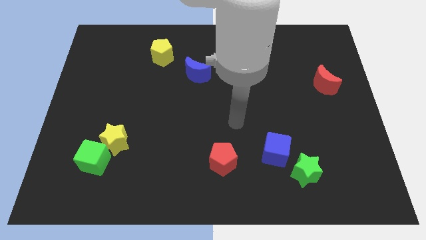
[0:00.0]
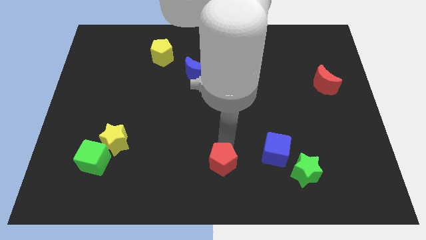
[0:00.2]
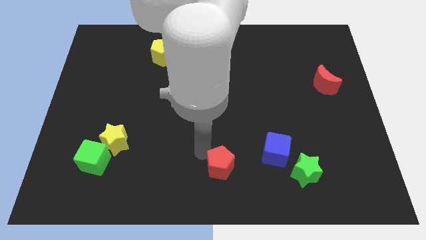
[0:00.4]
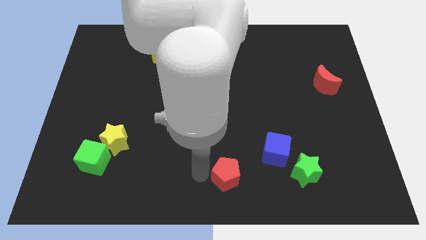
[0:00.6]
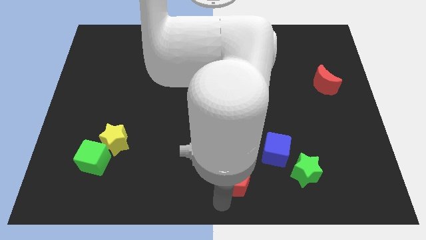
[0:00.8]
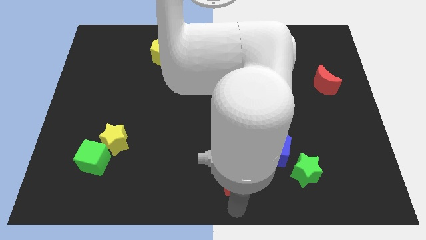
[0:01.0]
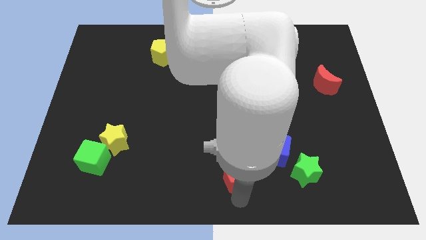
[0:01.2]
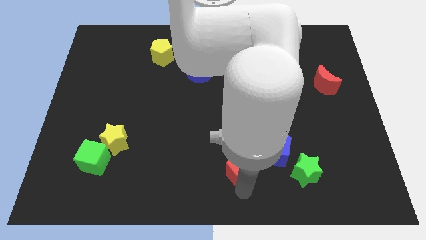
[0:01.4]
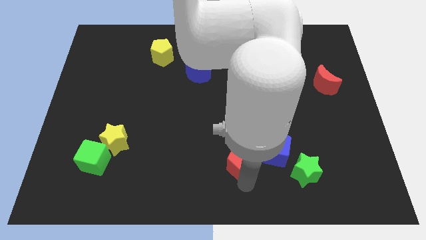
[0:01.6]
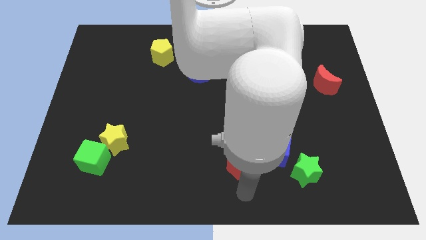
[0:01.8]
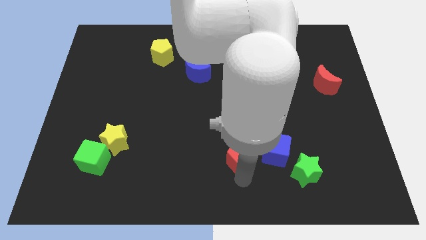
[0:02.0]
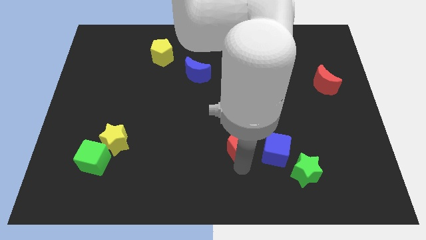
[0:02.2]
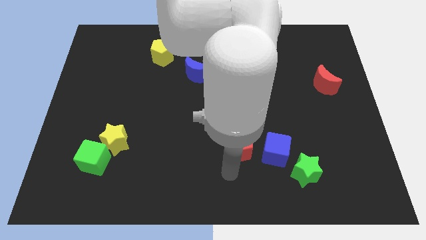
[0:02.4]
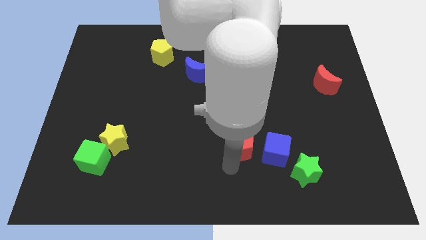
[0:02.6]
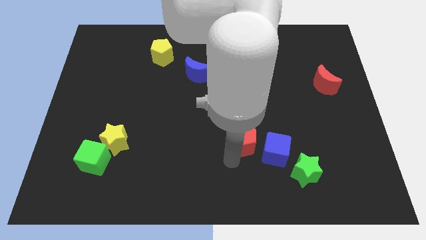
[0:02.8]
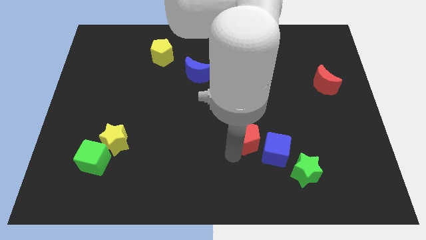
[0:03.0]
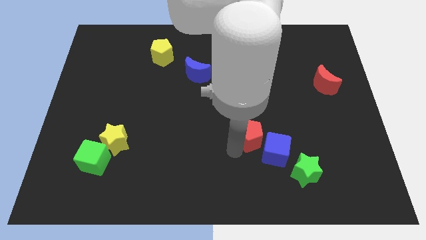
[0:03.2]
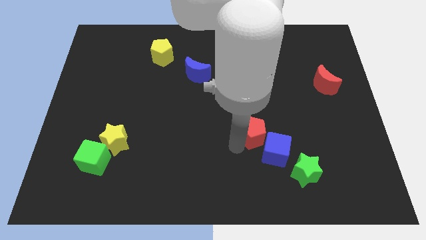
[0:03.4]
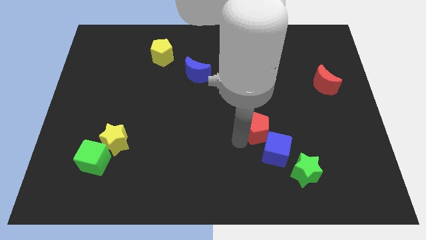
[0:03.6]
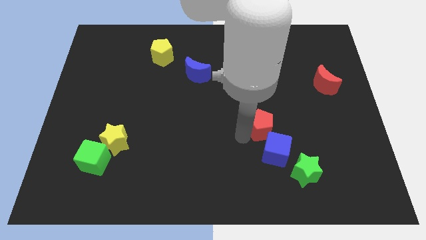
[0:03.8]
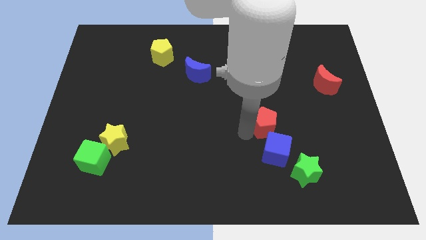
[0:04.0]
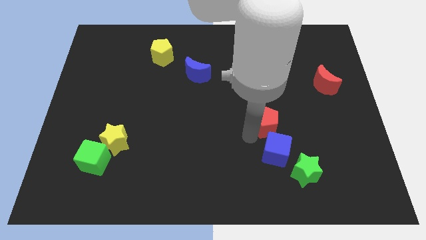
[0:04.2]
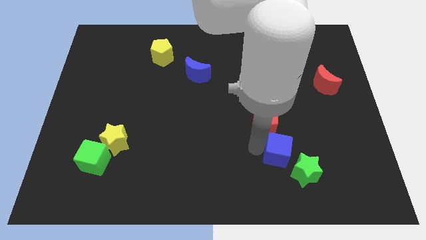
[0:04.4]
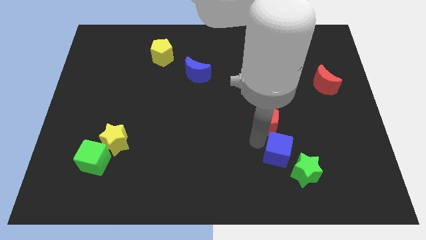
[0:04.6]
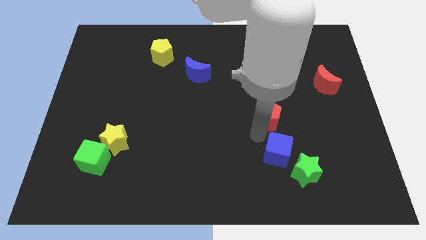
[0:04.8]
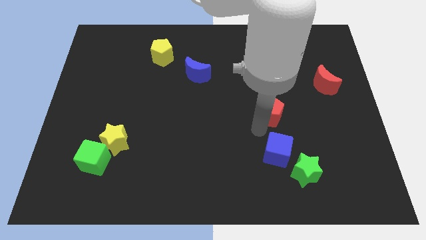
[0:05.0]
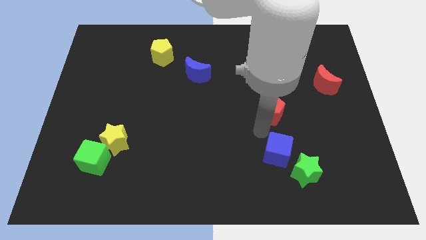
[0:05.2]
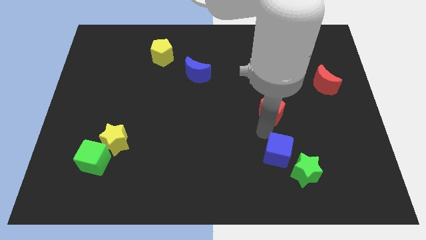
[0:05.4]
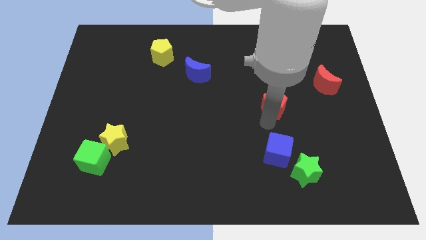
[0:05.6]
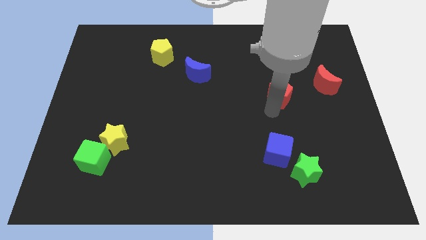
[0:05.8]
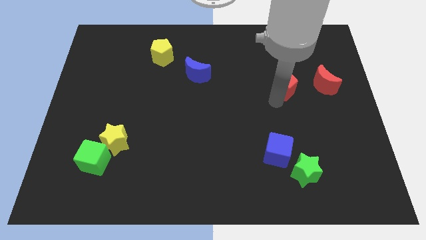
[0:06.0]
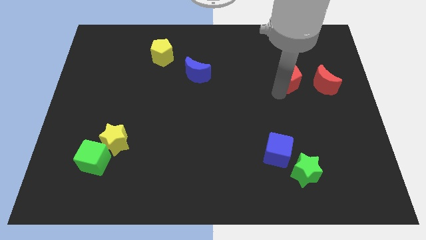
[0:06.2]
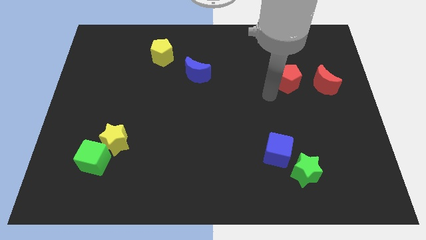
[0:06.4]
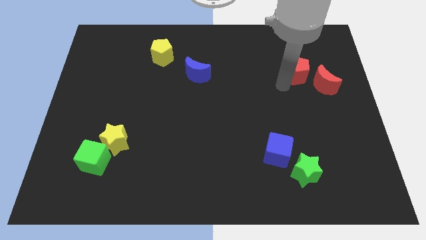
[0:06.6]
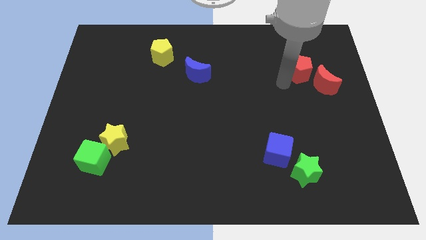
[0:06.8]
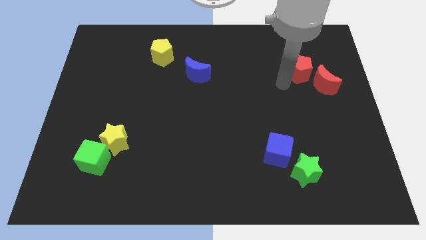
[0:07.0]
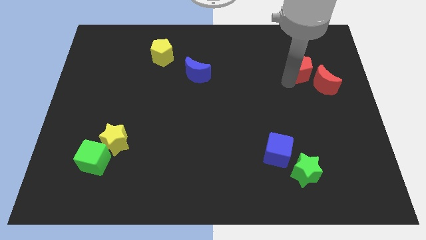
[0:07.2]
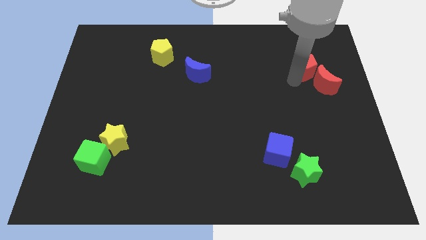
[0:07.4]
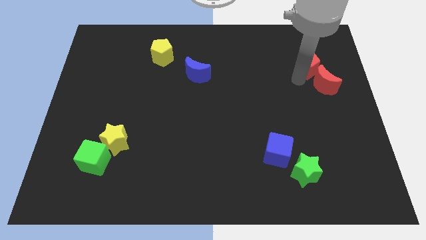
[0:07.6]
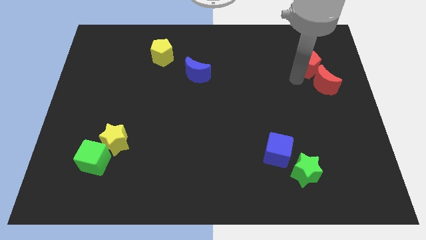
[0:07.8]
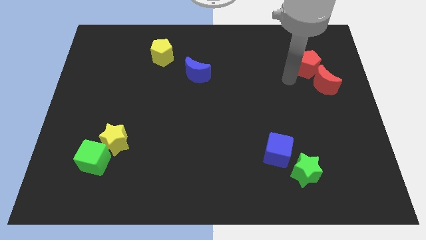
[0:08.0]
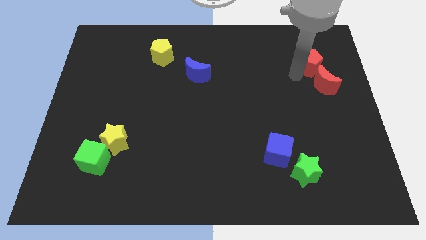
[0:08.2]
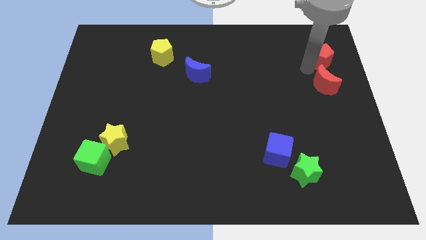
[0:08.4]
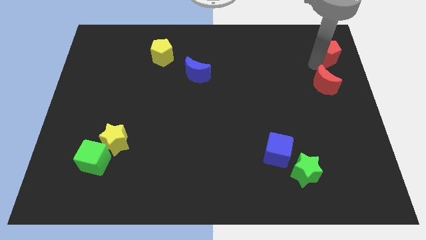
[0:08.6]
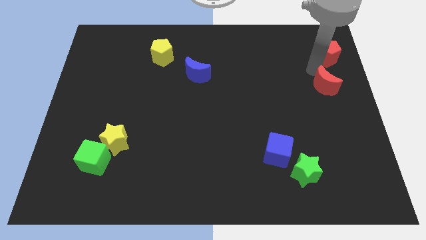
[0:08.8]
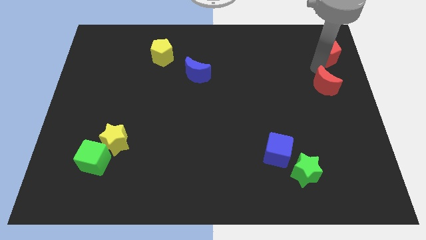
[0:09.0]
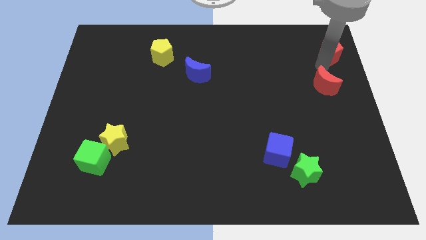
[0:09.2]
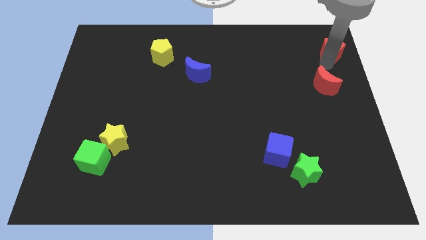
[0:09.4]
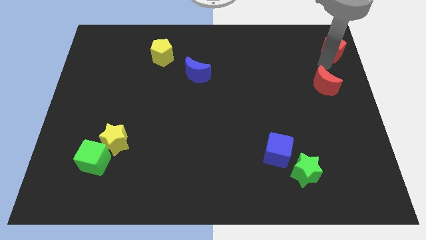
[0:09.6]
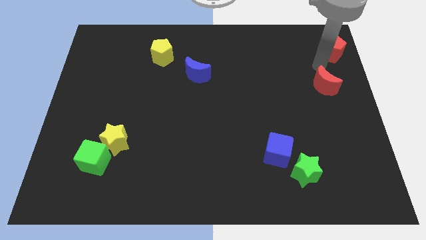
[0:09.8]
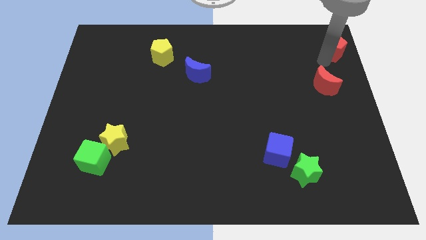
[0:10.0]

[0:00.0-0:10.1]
put the red pentagon to the top right corner

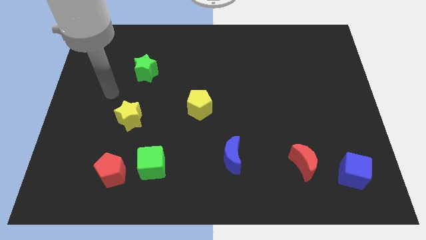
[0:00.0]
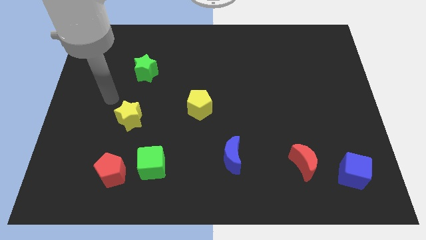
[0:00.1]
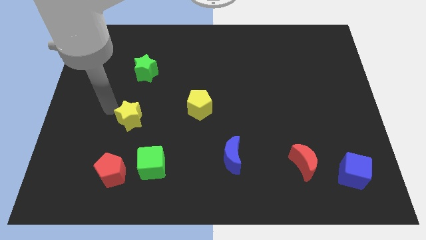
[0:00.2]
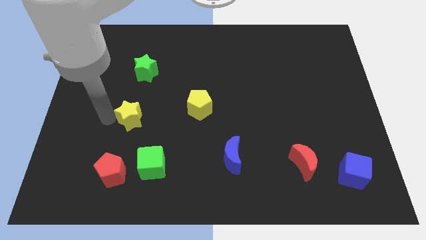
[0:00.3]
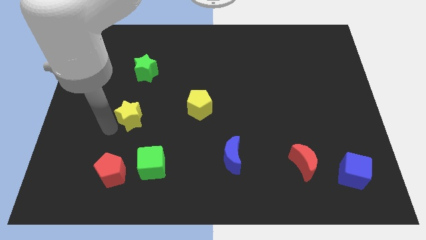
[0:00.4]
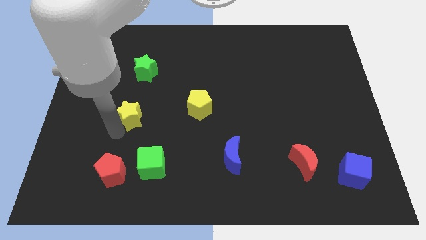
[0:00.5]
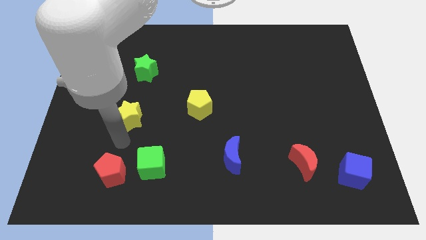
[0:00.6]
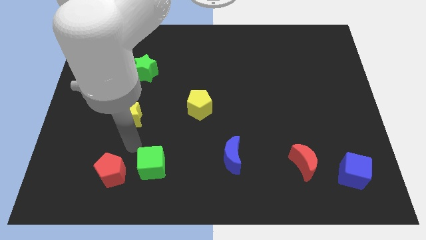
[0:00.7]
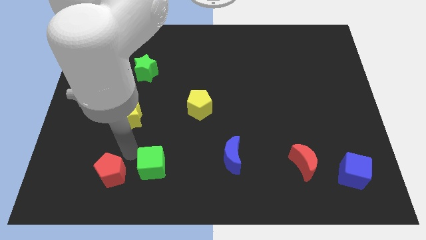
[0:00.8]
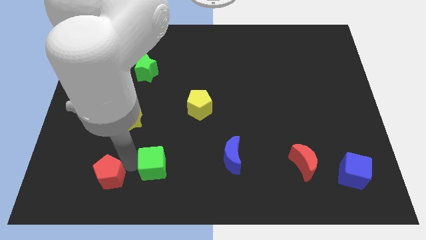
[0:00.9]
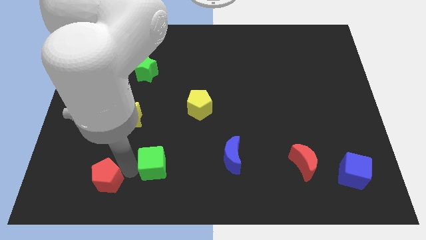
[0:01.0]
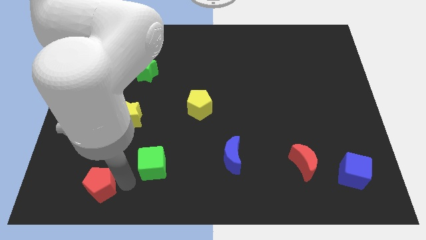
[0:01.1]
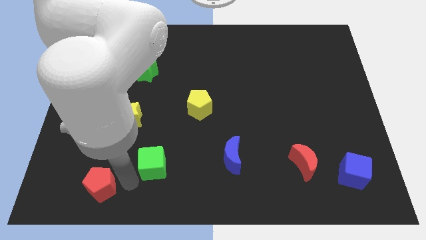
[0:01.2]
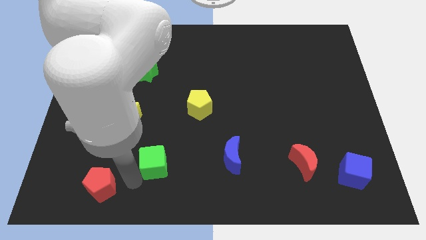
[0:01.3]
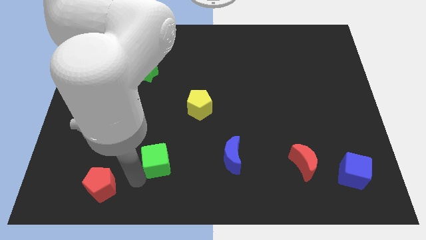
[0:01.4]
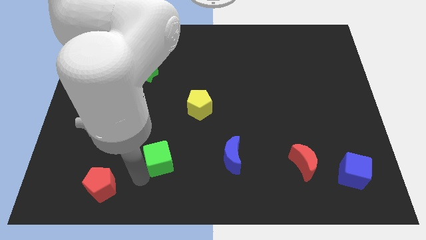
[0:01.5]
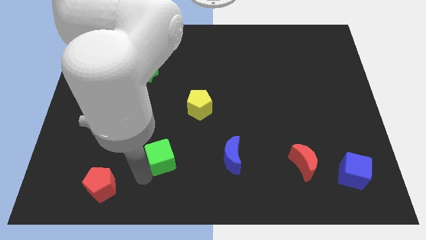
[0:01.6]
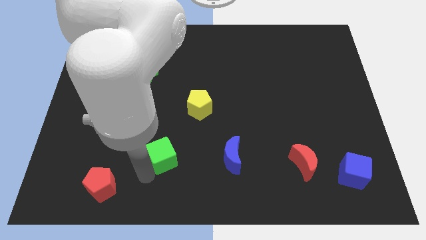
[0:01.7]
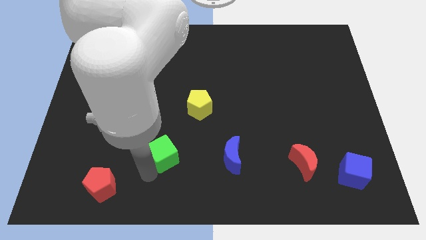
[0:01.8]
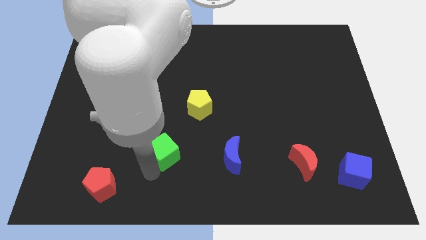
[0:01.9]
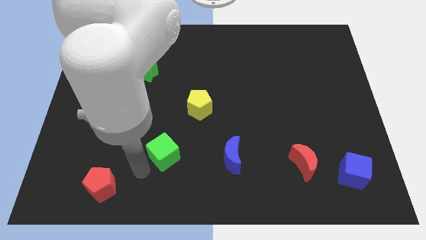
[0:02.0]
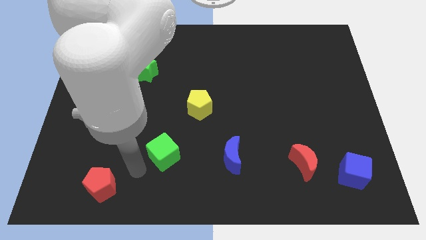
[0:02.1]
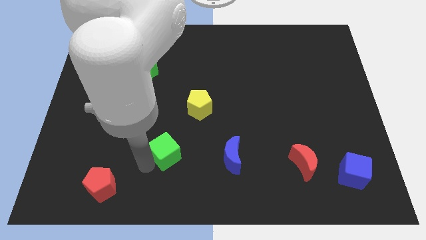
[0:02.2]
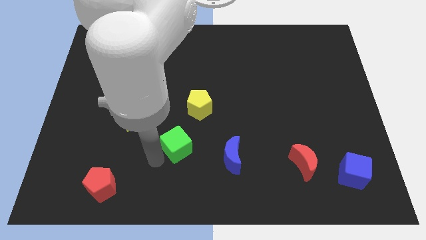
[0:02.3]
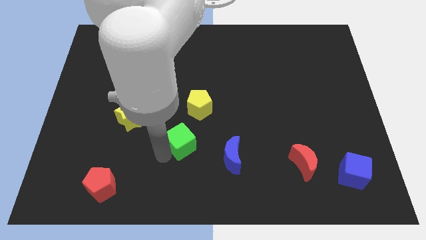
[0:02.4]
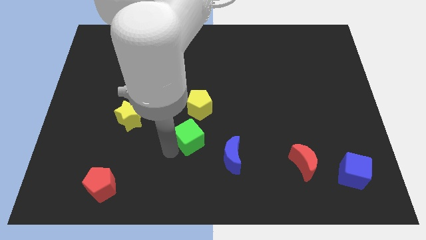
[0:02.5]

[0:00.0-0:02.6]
slide the green cube to the middle of the board
